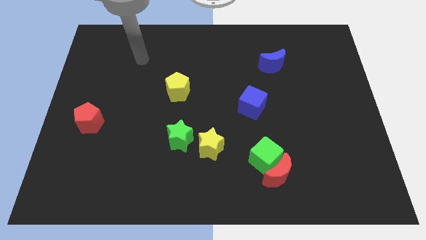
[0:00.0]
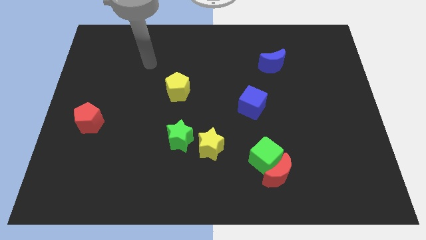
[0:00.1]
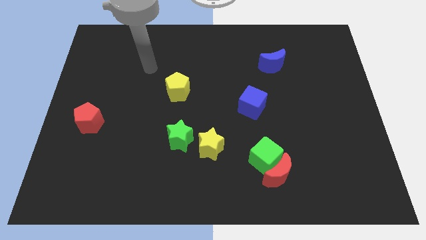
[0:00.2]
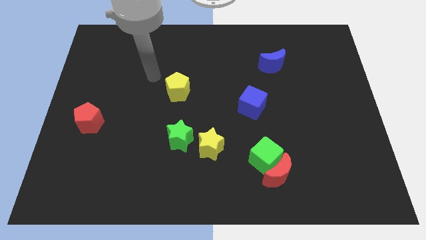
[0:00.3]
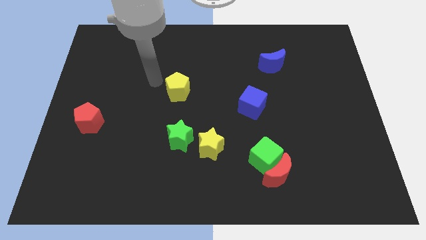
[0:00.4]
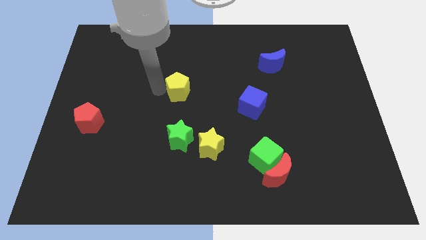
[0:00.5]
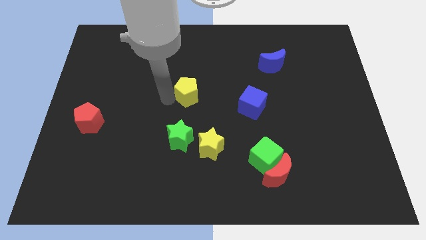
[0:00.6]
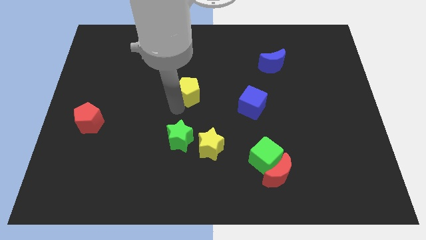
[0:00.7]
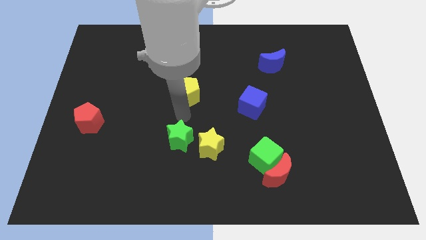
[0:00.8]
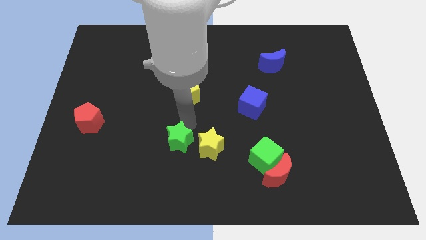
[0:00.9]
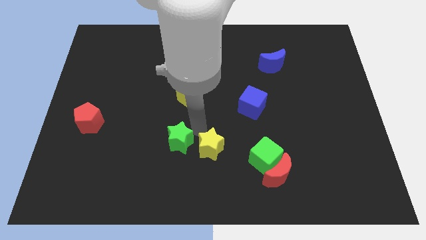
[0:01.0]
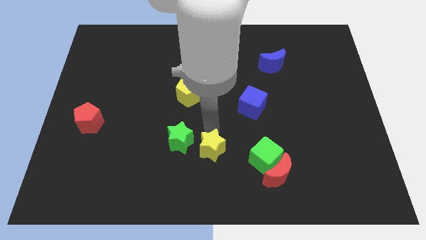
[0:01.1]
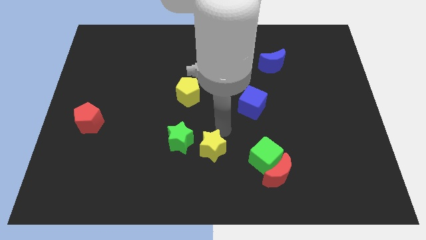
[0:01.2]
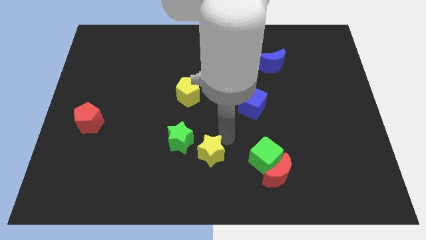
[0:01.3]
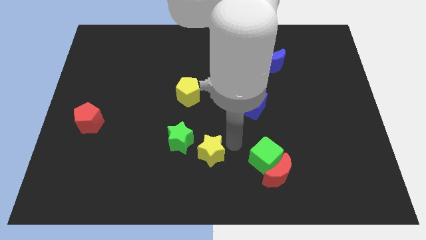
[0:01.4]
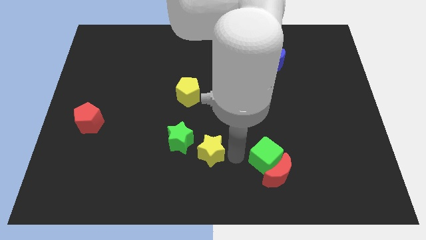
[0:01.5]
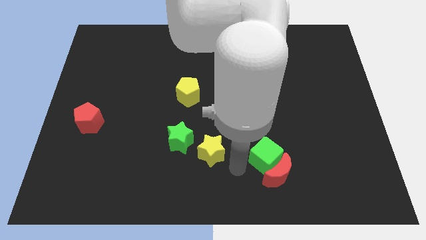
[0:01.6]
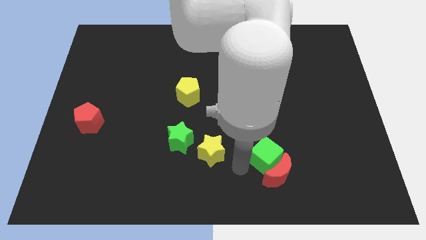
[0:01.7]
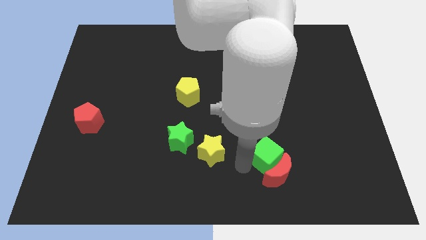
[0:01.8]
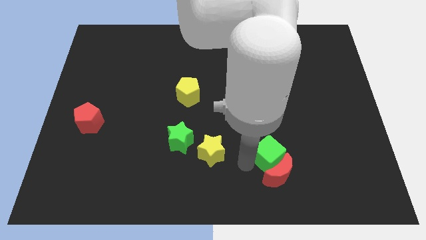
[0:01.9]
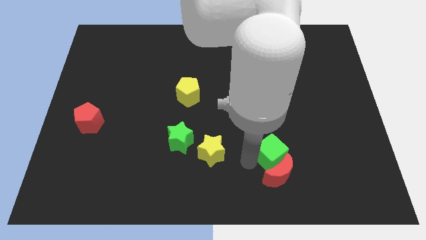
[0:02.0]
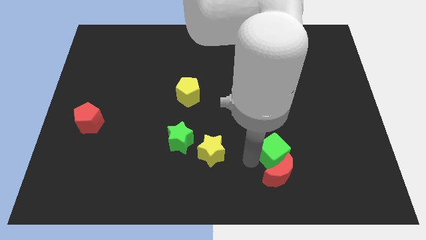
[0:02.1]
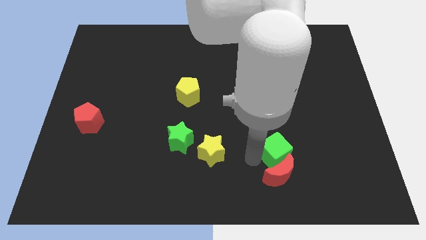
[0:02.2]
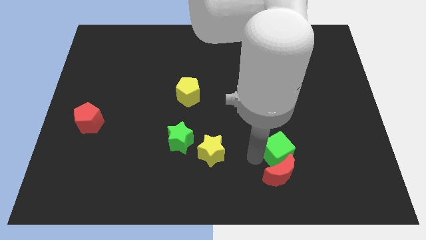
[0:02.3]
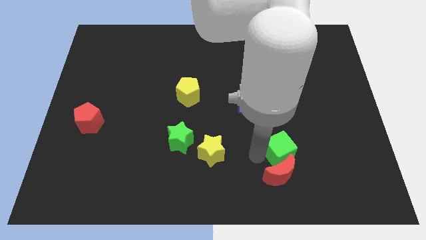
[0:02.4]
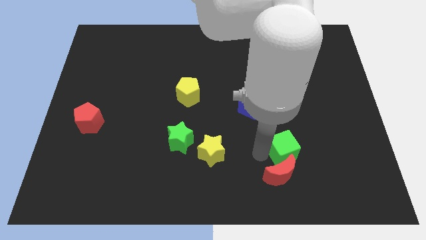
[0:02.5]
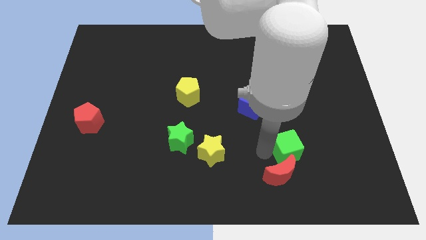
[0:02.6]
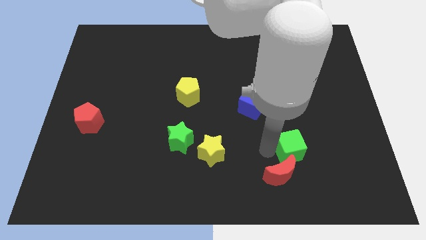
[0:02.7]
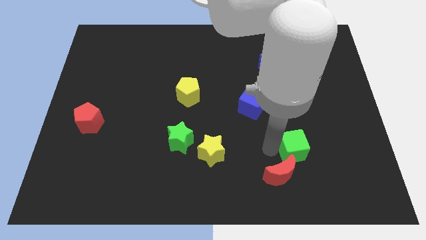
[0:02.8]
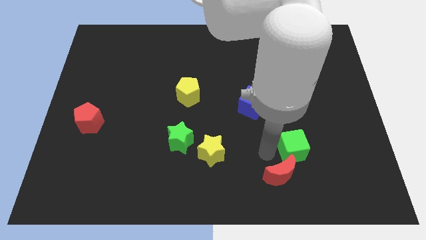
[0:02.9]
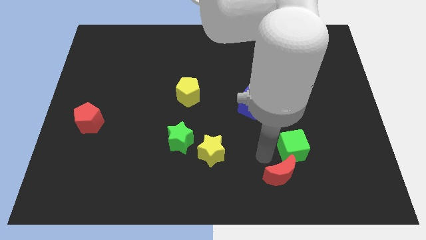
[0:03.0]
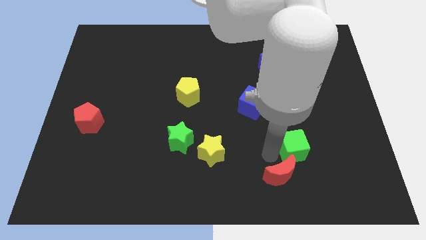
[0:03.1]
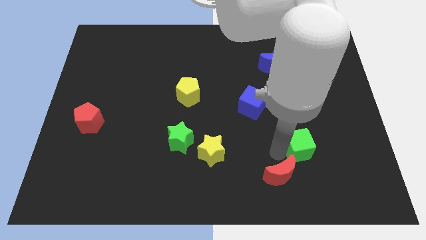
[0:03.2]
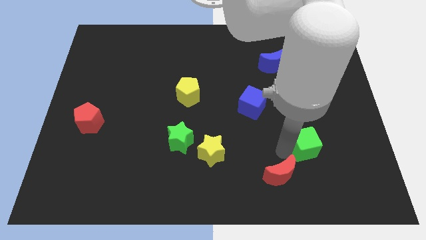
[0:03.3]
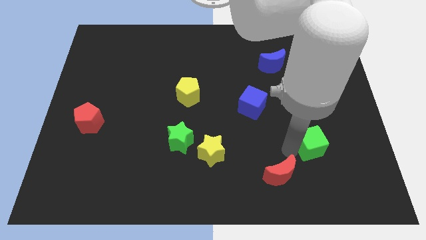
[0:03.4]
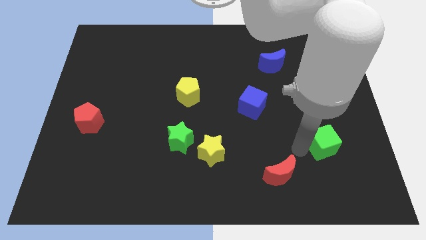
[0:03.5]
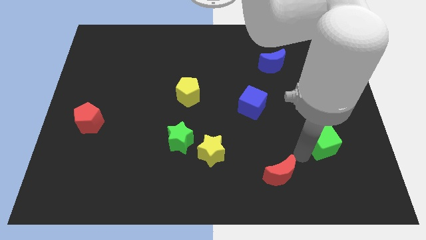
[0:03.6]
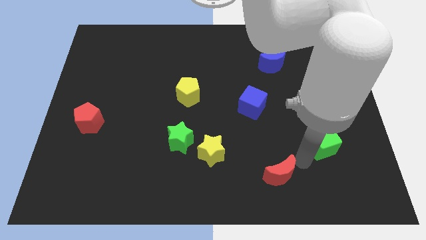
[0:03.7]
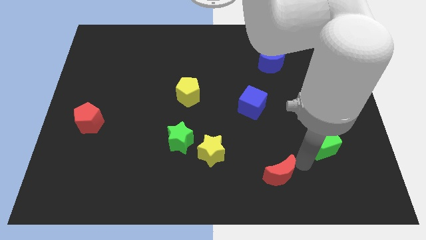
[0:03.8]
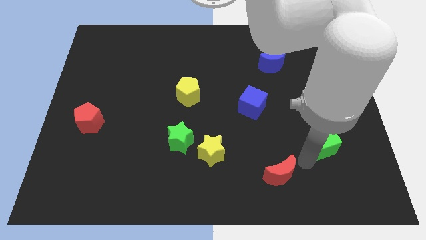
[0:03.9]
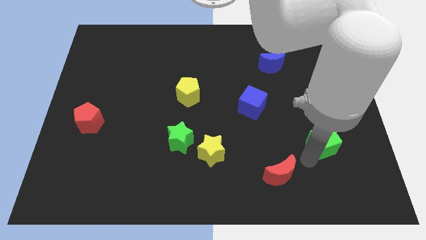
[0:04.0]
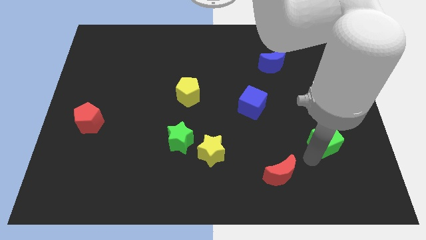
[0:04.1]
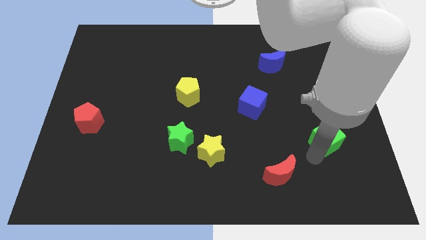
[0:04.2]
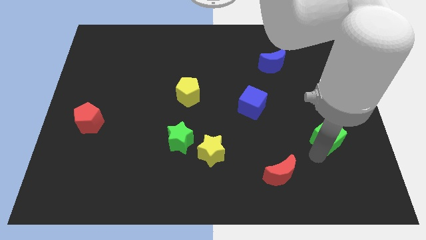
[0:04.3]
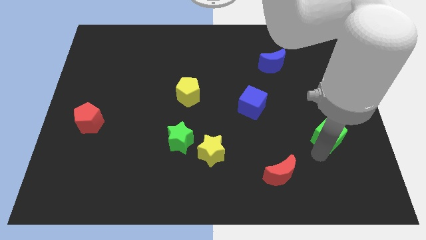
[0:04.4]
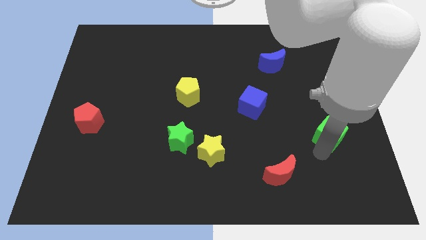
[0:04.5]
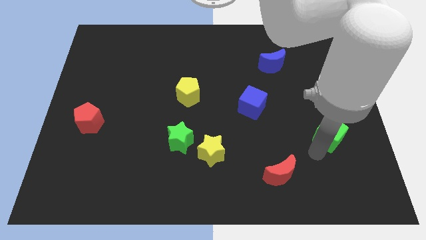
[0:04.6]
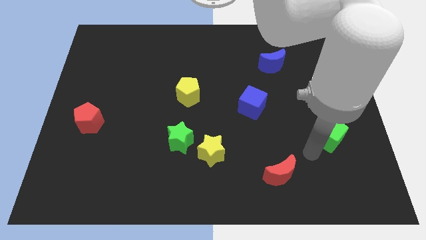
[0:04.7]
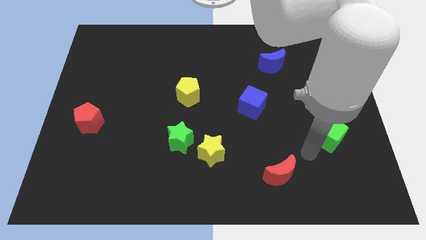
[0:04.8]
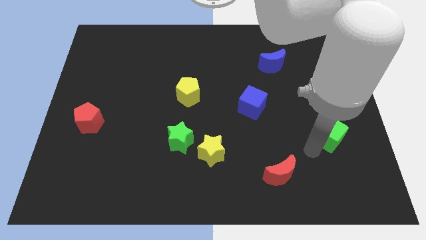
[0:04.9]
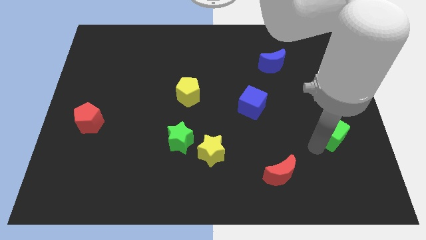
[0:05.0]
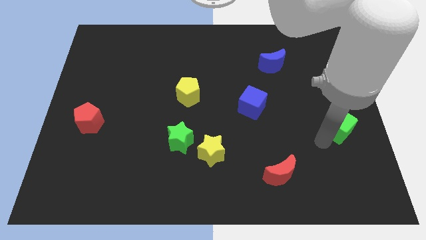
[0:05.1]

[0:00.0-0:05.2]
push the green cube to the right side

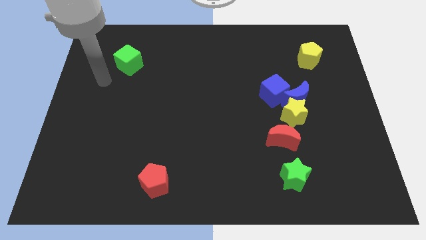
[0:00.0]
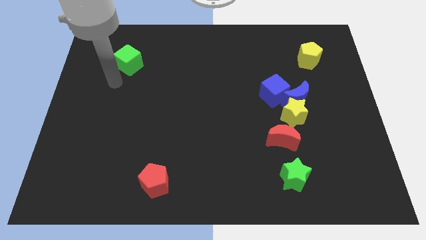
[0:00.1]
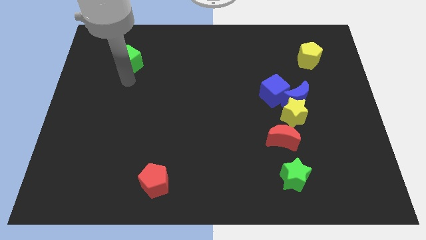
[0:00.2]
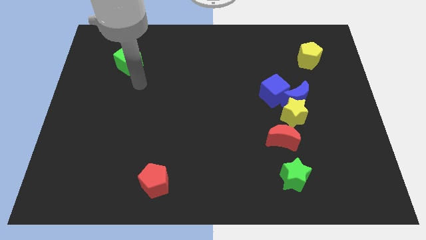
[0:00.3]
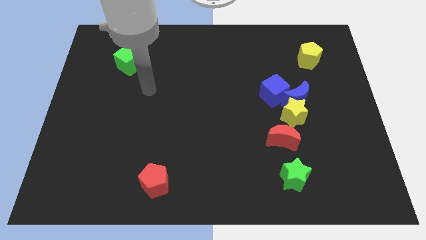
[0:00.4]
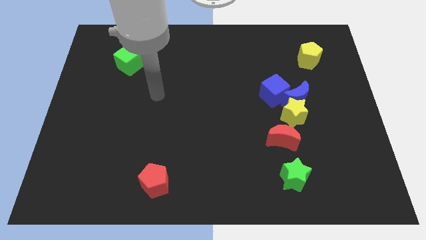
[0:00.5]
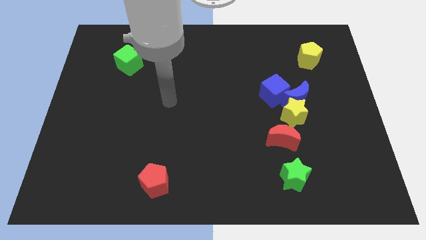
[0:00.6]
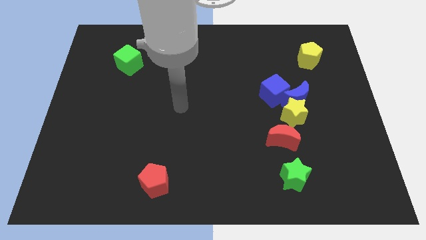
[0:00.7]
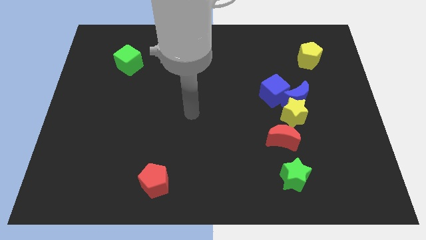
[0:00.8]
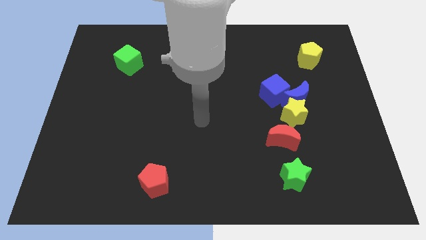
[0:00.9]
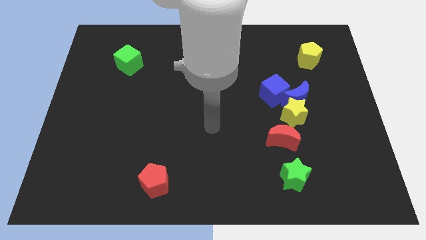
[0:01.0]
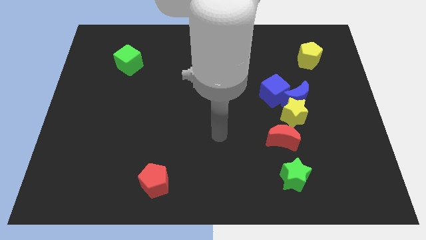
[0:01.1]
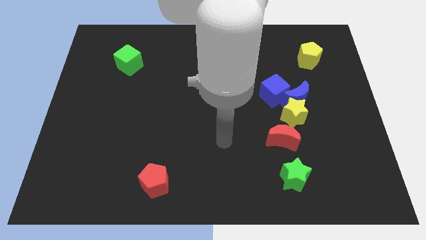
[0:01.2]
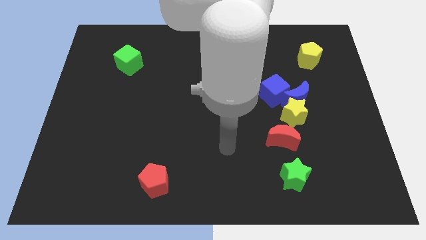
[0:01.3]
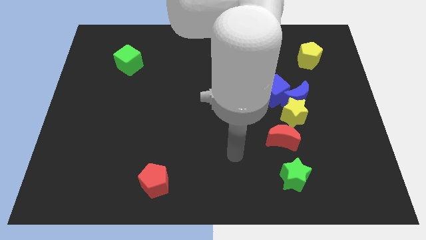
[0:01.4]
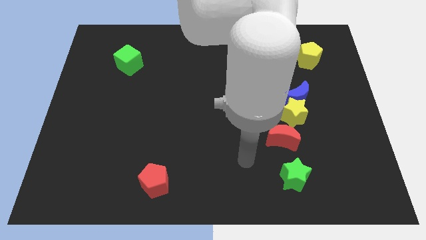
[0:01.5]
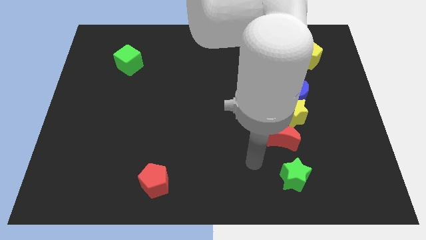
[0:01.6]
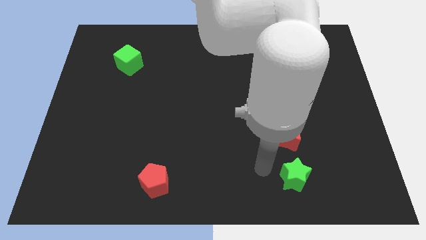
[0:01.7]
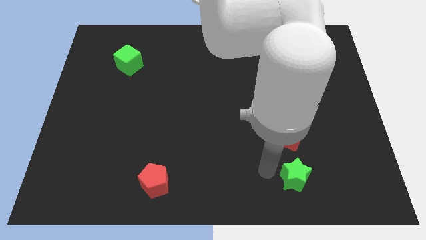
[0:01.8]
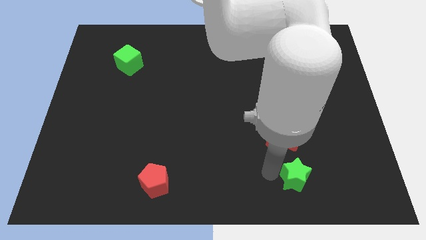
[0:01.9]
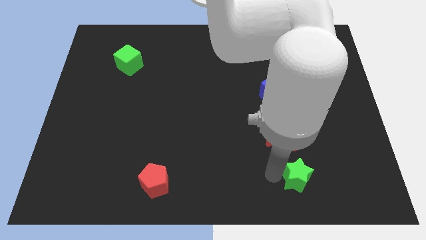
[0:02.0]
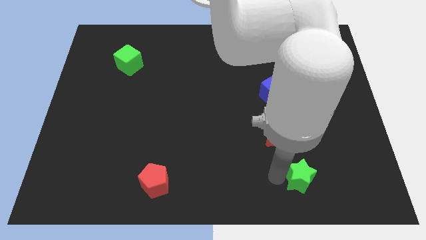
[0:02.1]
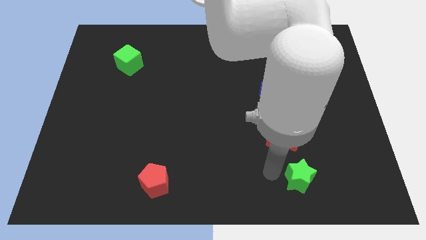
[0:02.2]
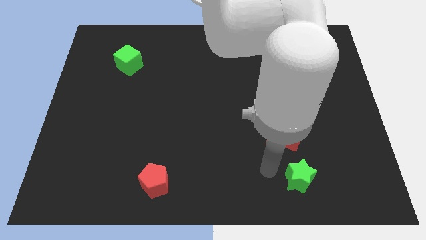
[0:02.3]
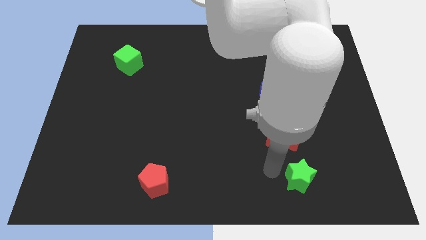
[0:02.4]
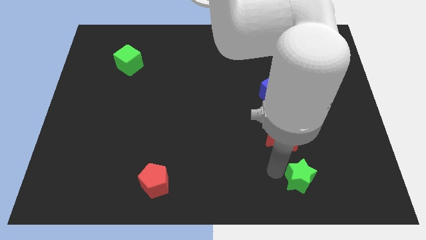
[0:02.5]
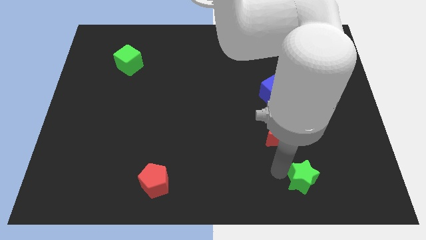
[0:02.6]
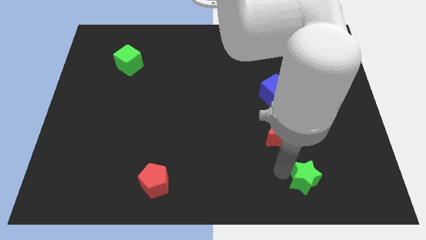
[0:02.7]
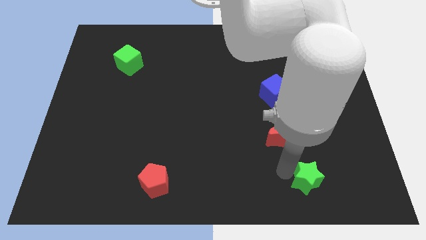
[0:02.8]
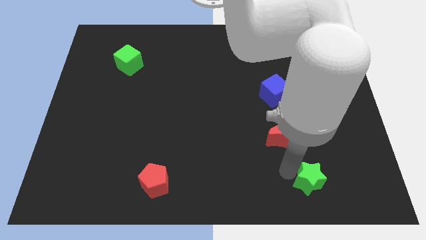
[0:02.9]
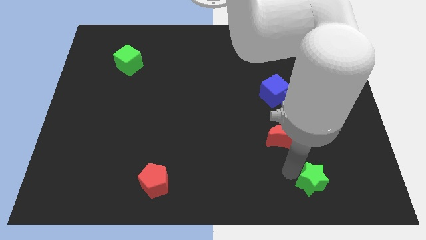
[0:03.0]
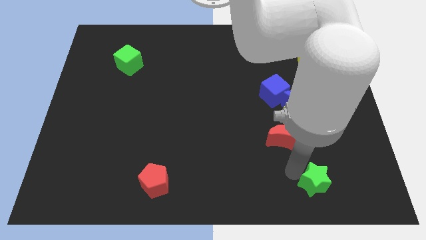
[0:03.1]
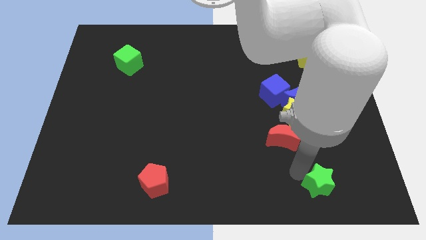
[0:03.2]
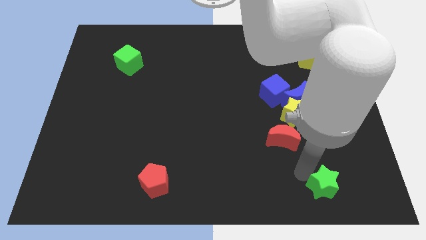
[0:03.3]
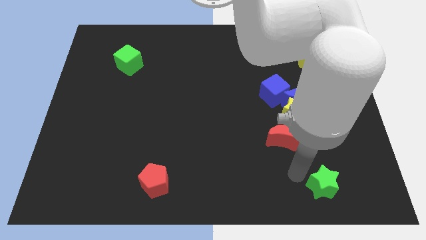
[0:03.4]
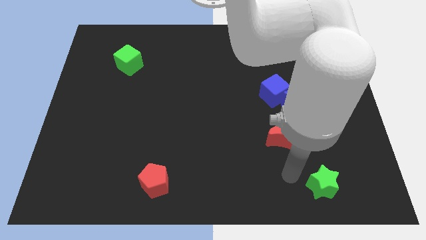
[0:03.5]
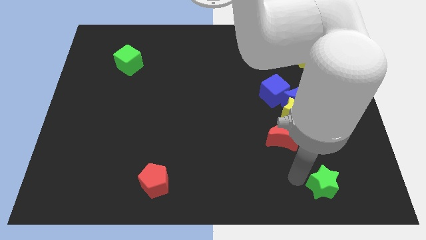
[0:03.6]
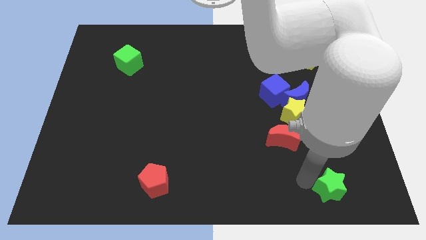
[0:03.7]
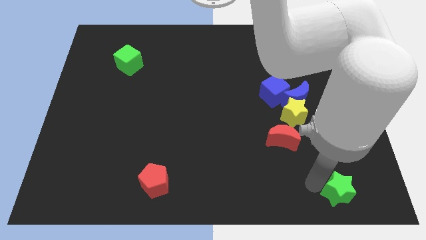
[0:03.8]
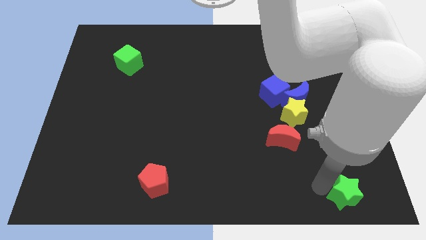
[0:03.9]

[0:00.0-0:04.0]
put the green star to the bottom right of the board
